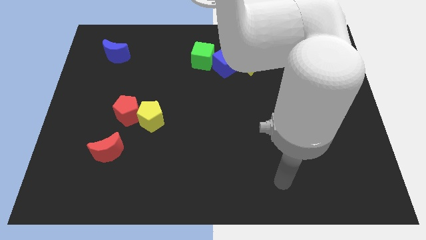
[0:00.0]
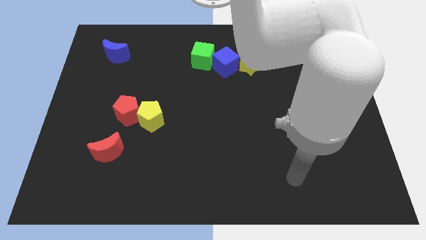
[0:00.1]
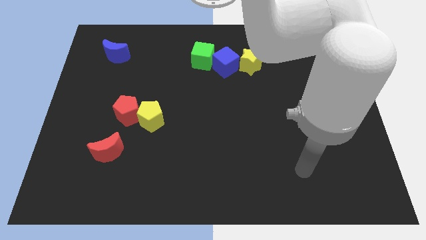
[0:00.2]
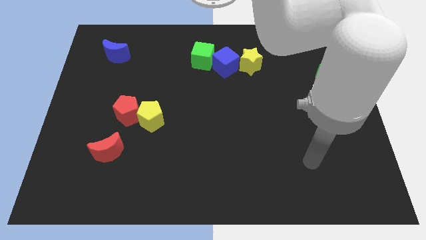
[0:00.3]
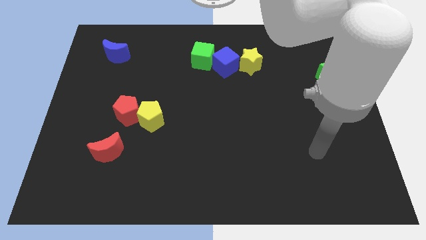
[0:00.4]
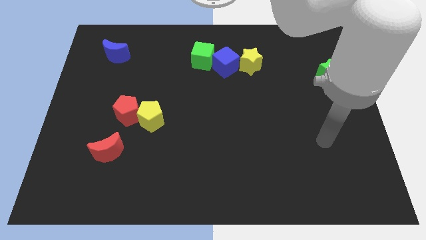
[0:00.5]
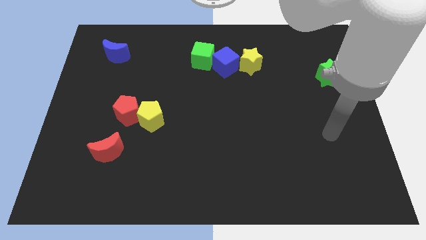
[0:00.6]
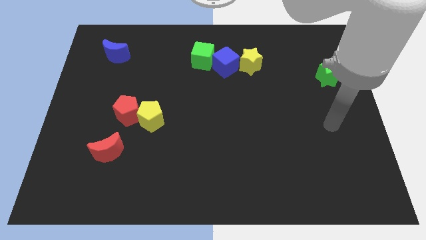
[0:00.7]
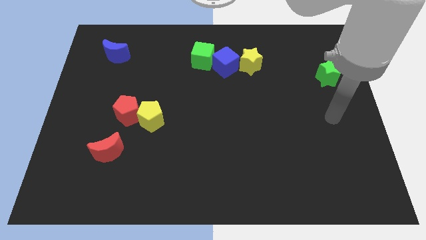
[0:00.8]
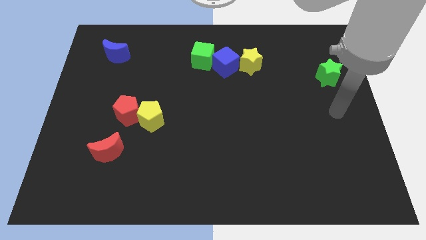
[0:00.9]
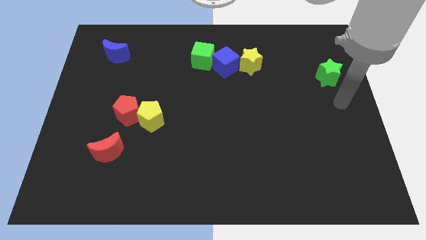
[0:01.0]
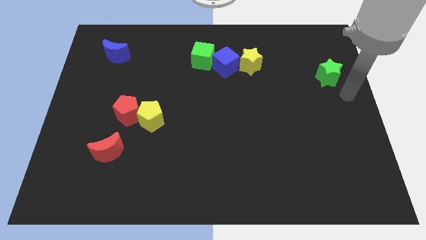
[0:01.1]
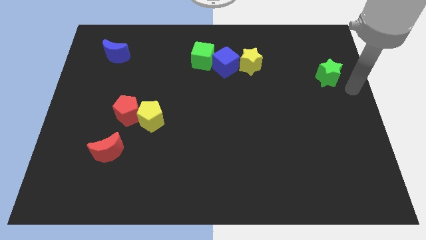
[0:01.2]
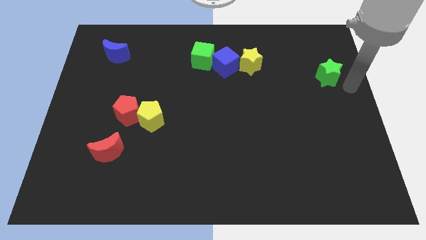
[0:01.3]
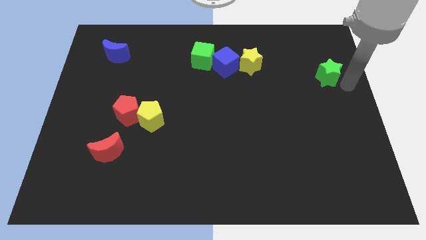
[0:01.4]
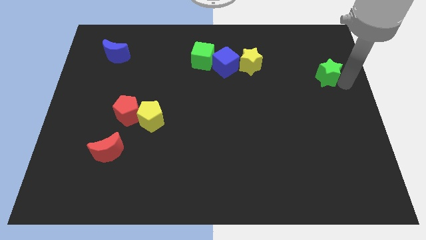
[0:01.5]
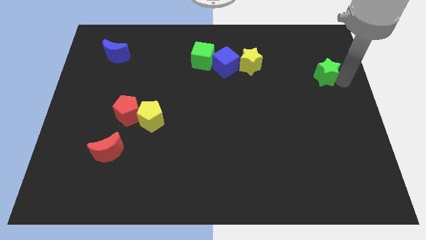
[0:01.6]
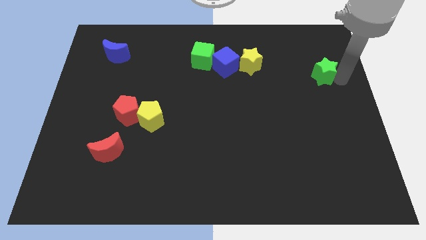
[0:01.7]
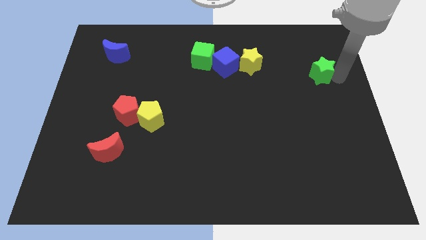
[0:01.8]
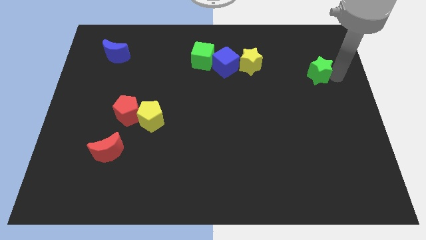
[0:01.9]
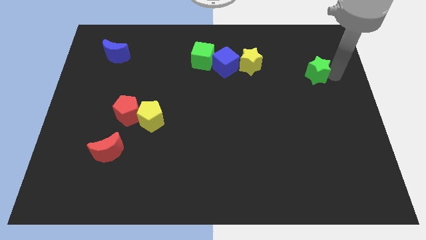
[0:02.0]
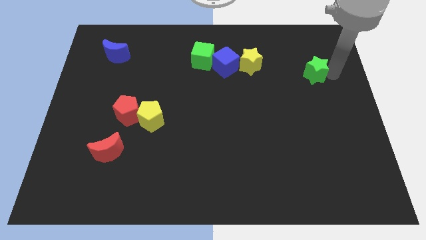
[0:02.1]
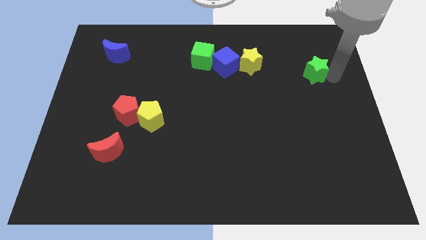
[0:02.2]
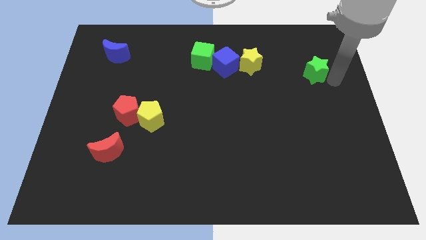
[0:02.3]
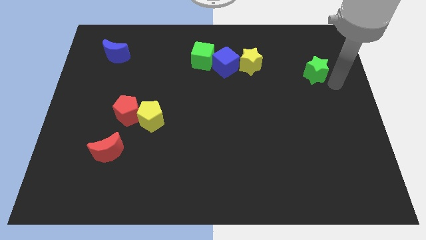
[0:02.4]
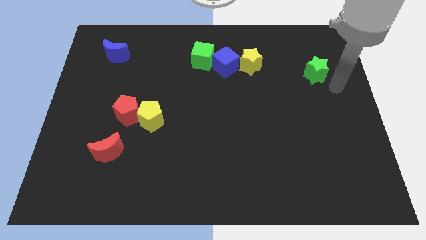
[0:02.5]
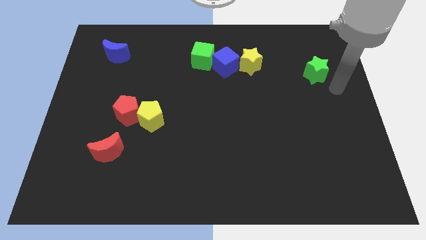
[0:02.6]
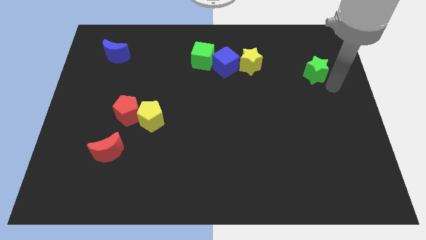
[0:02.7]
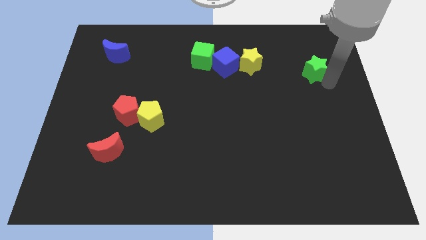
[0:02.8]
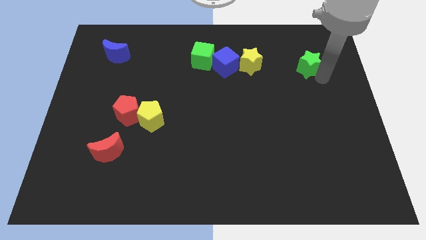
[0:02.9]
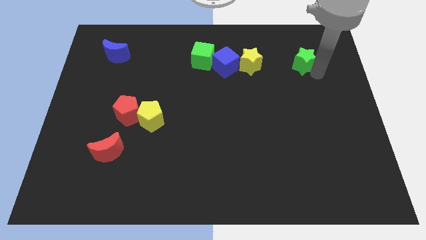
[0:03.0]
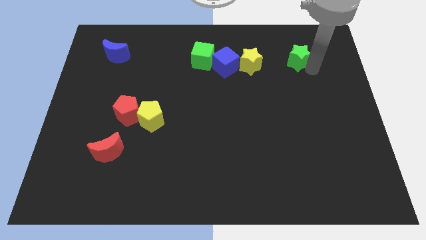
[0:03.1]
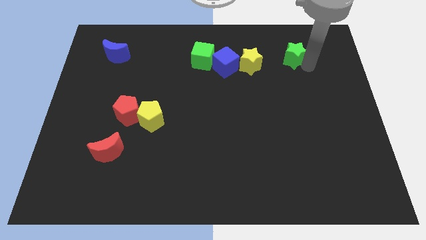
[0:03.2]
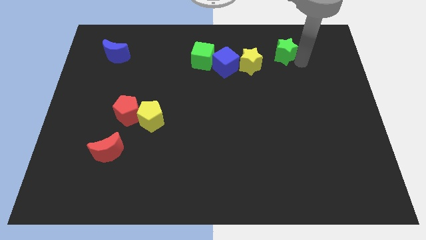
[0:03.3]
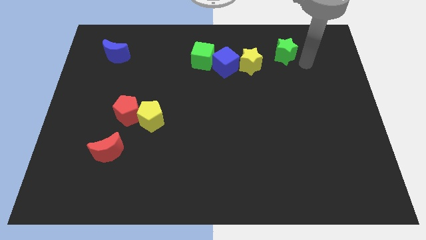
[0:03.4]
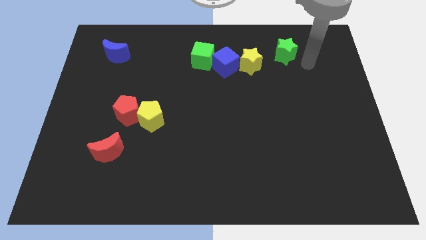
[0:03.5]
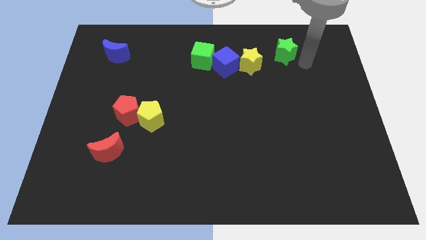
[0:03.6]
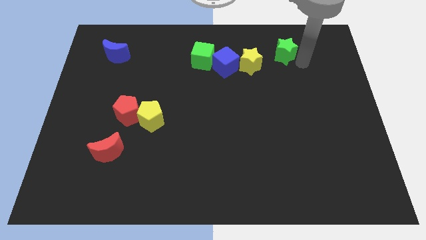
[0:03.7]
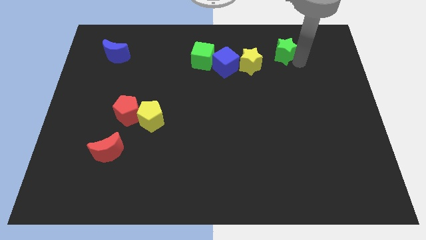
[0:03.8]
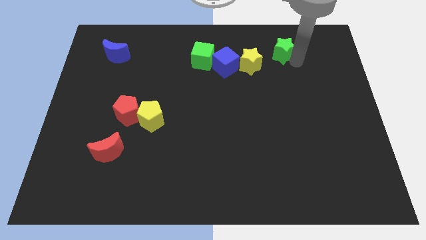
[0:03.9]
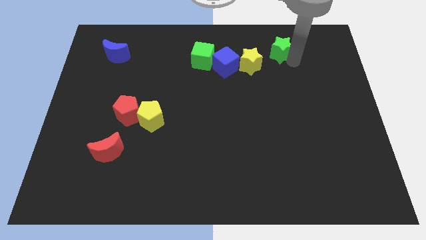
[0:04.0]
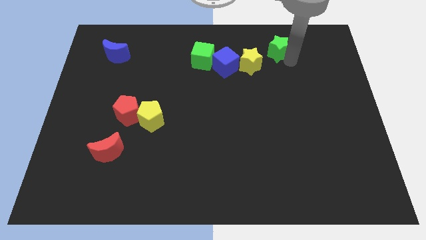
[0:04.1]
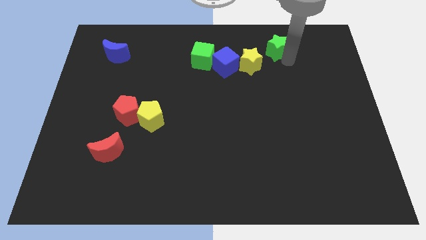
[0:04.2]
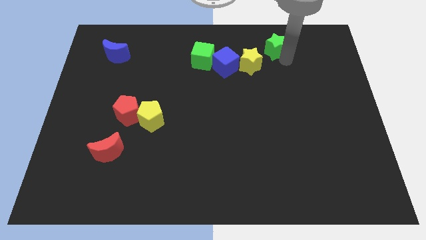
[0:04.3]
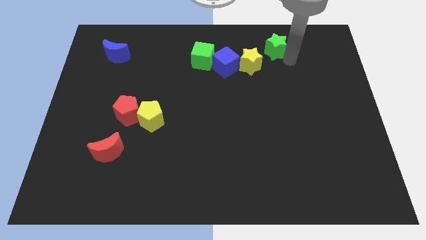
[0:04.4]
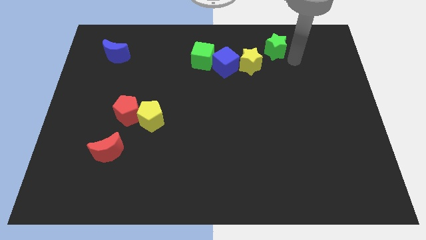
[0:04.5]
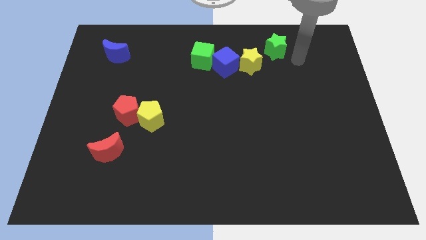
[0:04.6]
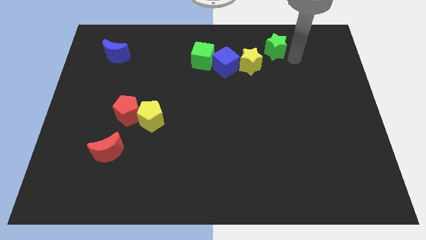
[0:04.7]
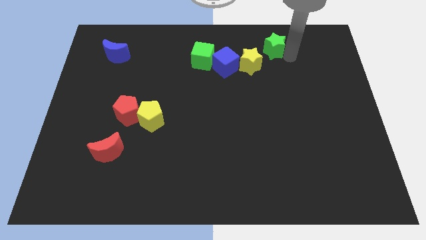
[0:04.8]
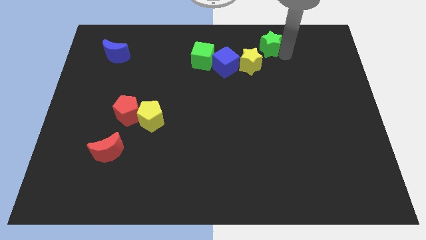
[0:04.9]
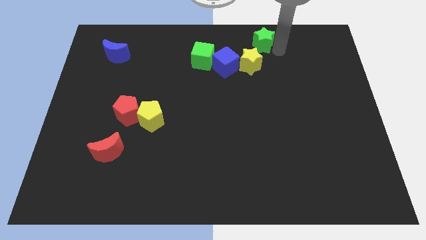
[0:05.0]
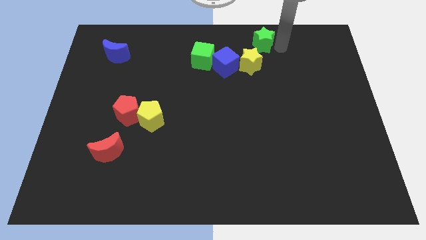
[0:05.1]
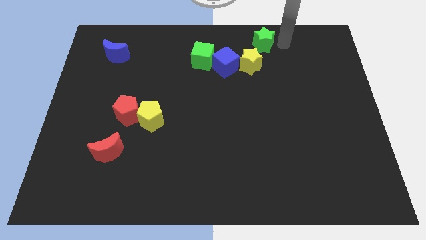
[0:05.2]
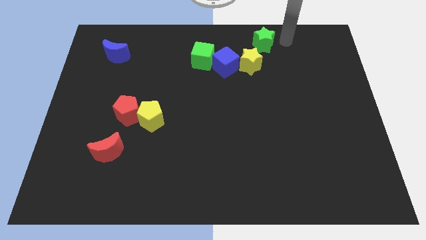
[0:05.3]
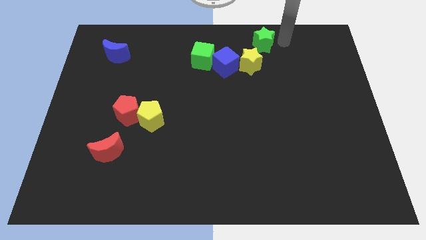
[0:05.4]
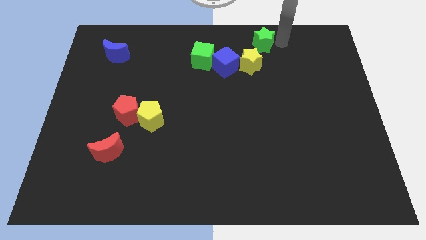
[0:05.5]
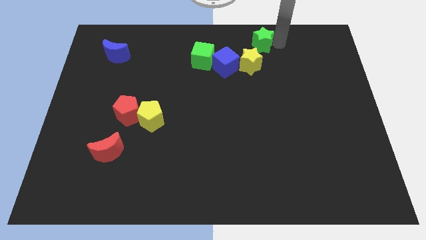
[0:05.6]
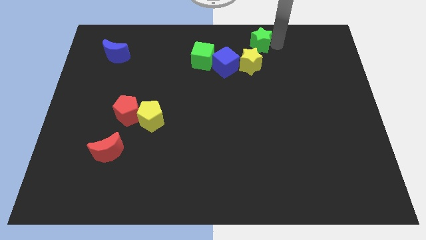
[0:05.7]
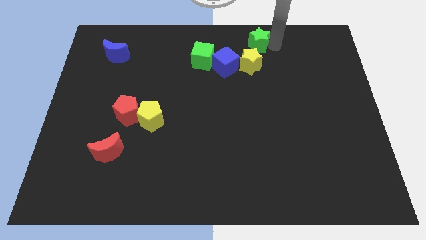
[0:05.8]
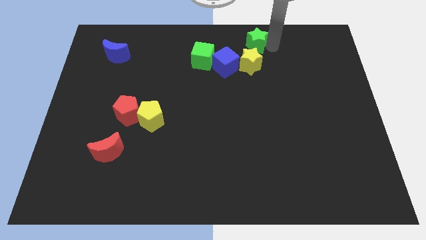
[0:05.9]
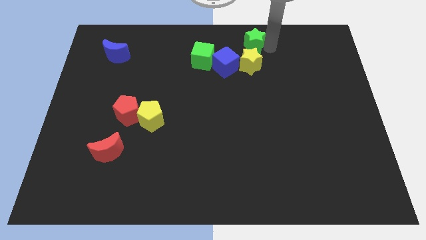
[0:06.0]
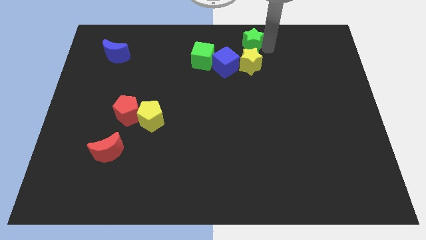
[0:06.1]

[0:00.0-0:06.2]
put the green star to the top
